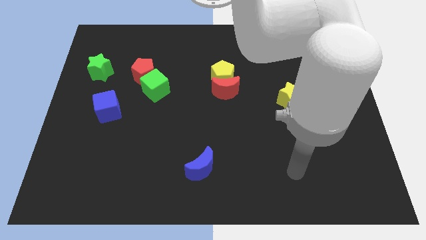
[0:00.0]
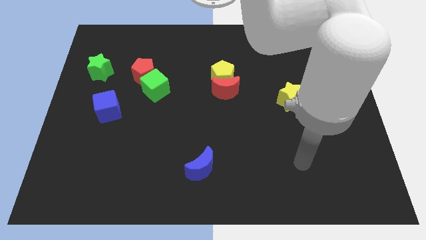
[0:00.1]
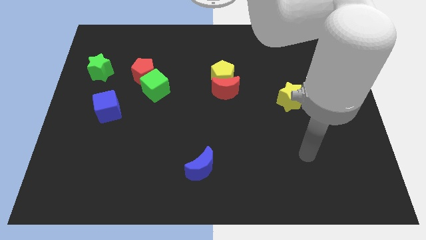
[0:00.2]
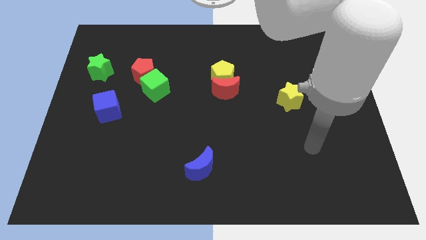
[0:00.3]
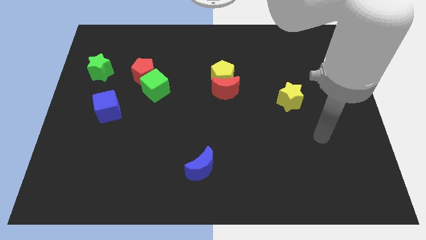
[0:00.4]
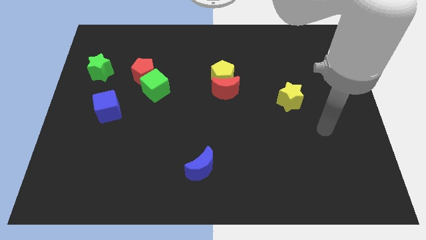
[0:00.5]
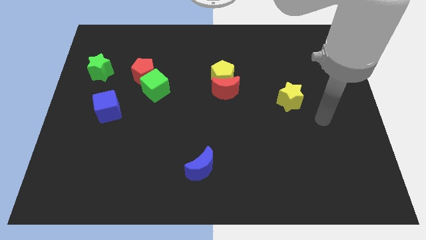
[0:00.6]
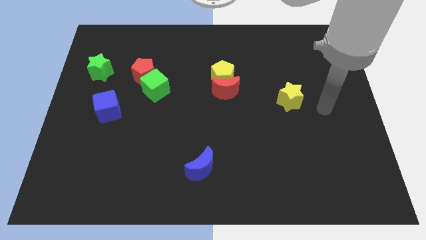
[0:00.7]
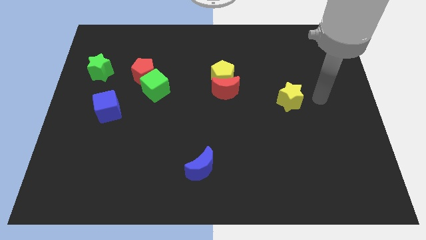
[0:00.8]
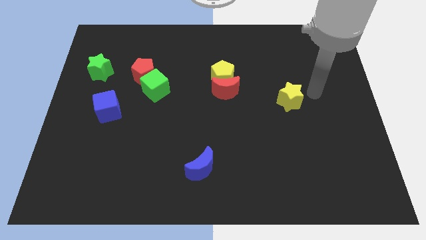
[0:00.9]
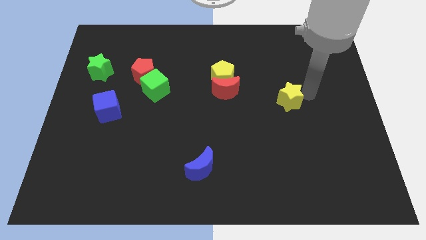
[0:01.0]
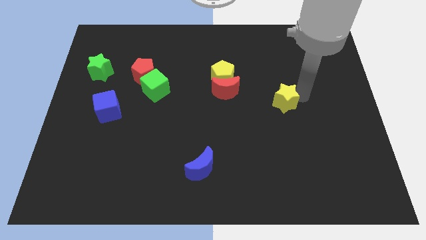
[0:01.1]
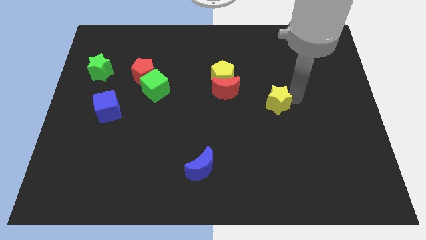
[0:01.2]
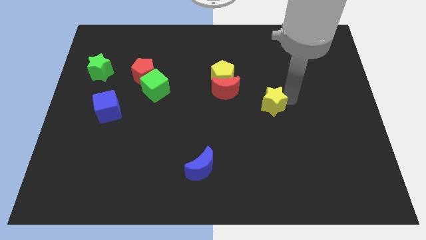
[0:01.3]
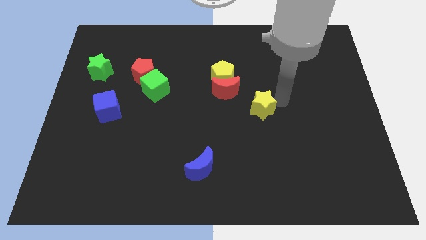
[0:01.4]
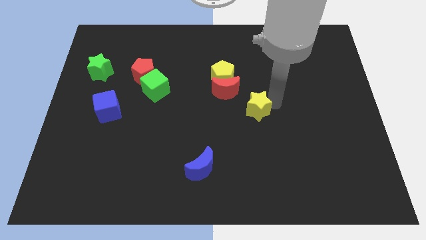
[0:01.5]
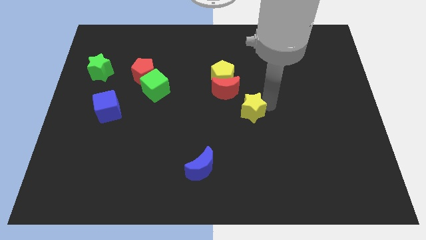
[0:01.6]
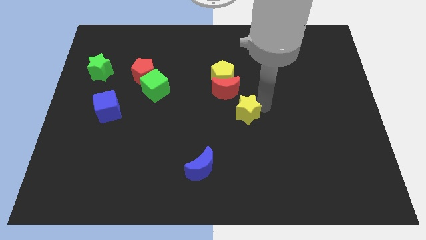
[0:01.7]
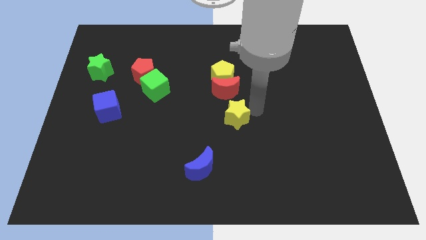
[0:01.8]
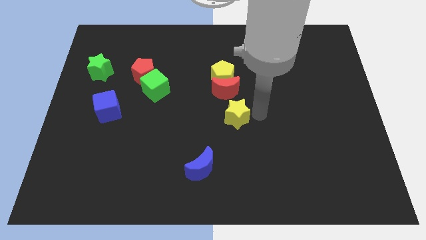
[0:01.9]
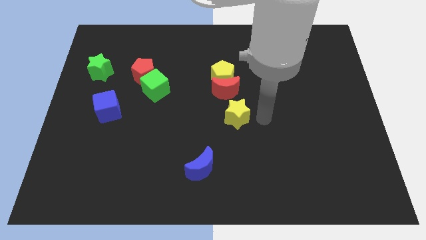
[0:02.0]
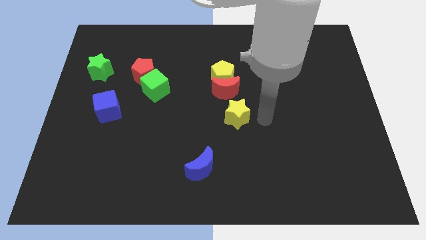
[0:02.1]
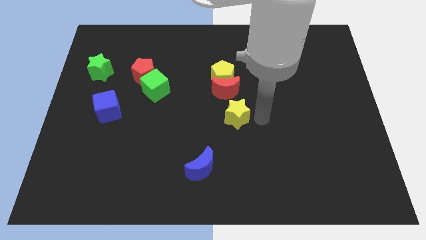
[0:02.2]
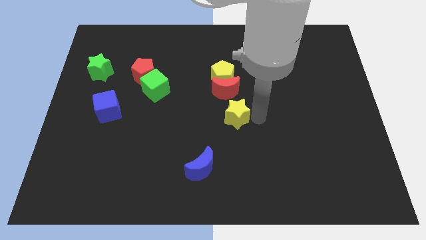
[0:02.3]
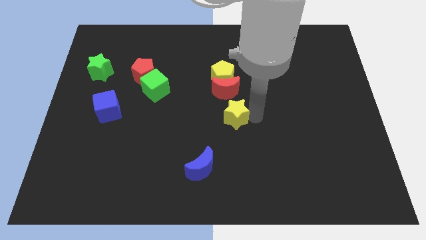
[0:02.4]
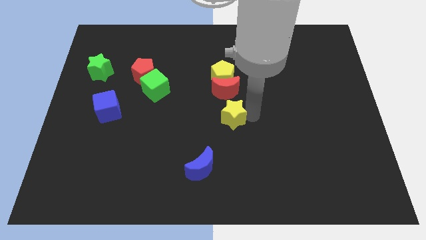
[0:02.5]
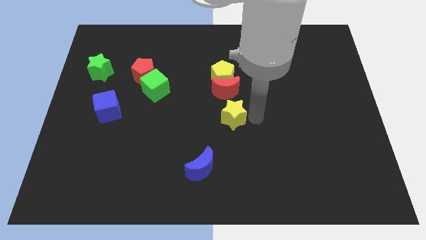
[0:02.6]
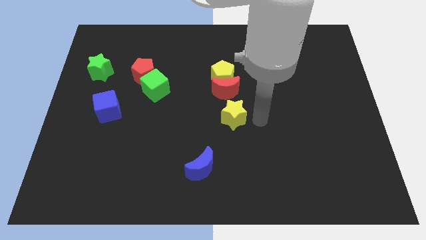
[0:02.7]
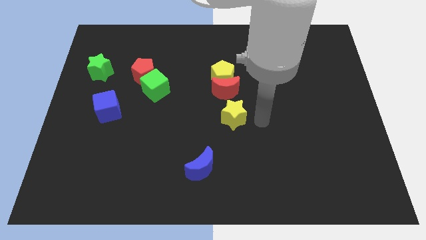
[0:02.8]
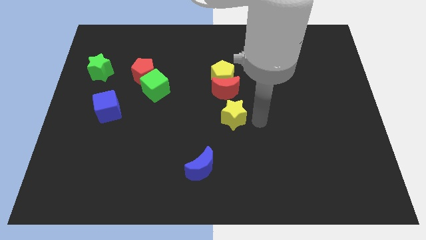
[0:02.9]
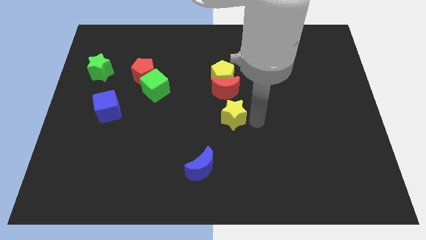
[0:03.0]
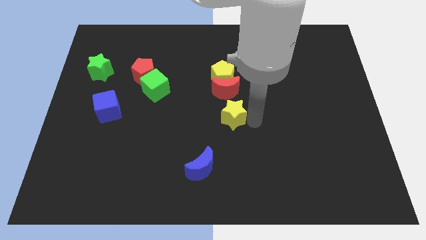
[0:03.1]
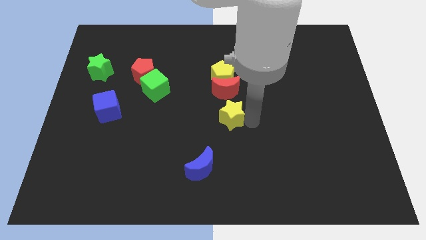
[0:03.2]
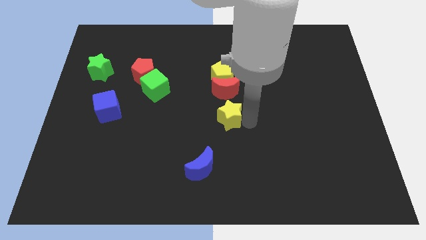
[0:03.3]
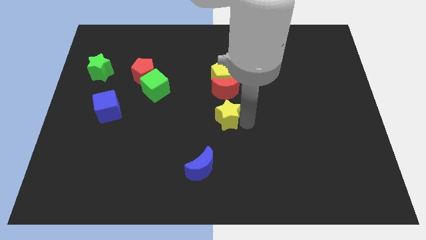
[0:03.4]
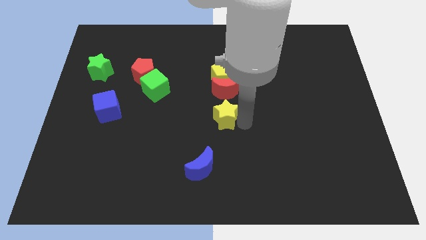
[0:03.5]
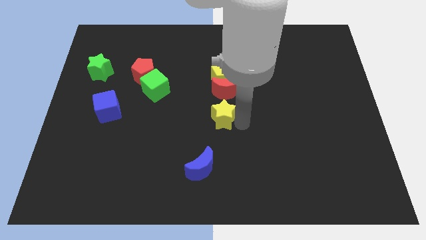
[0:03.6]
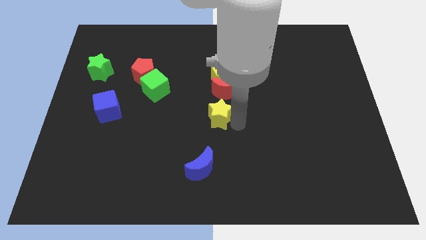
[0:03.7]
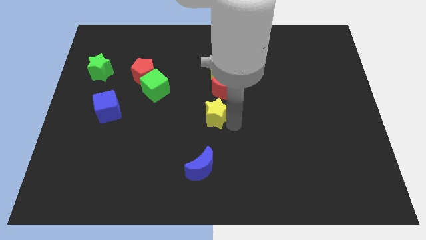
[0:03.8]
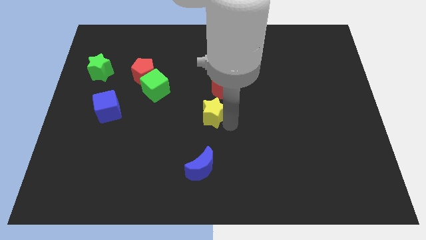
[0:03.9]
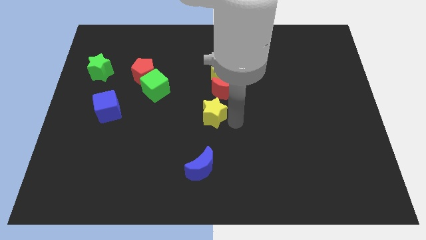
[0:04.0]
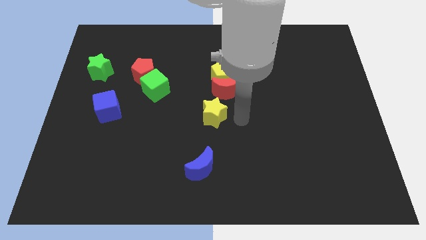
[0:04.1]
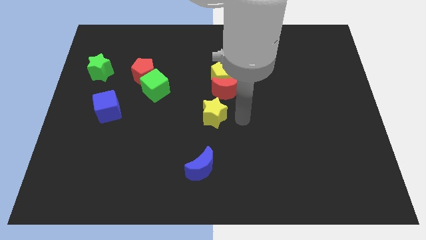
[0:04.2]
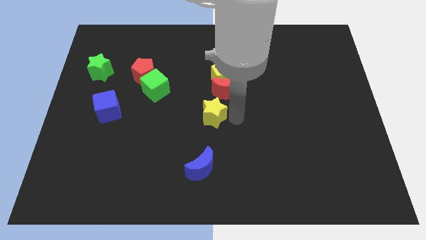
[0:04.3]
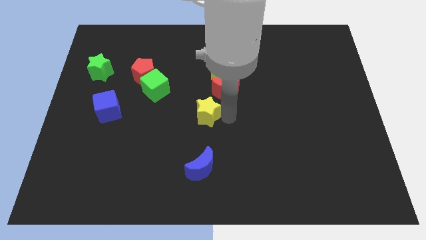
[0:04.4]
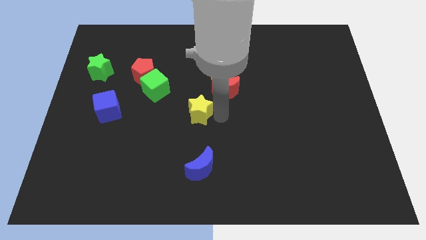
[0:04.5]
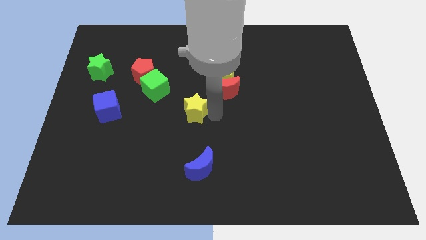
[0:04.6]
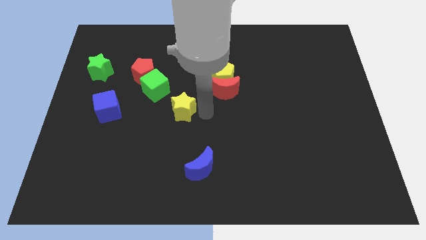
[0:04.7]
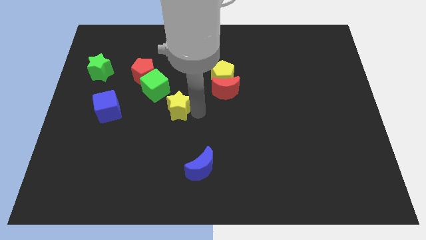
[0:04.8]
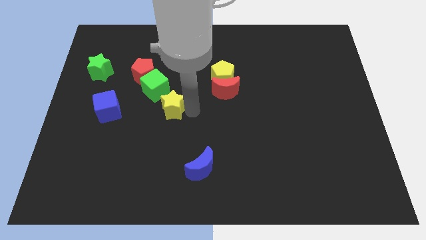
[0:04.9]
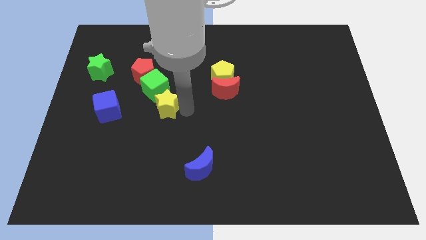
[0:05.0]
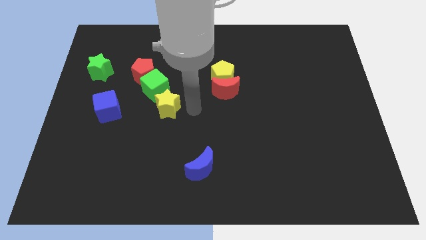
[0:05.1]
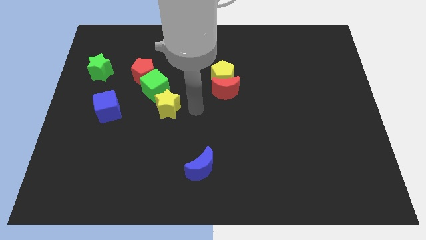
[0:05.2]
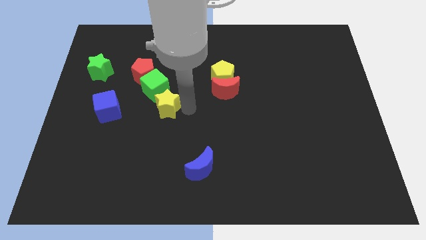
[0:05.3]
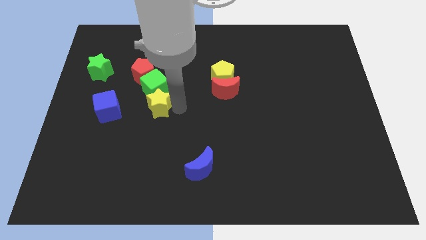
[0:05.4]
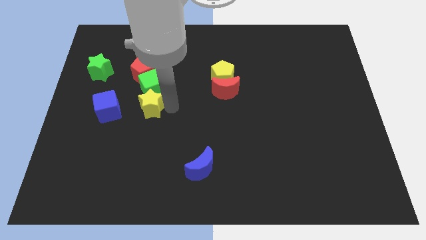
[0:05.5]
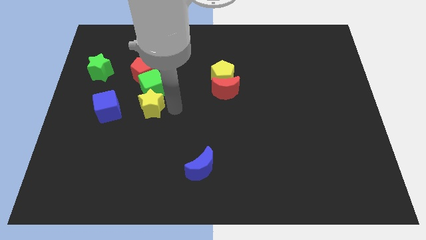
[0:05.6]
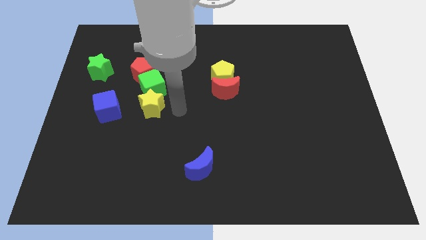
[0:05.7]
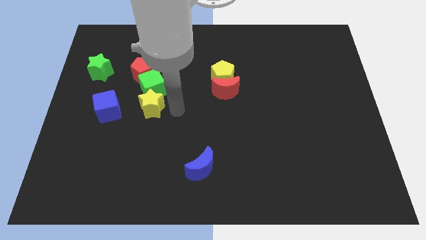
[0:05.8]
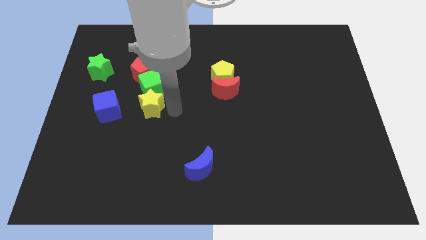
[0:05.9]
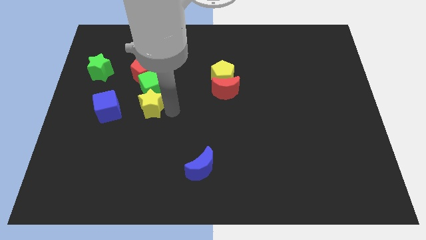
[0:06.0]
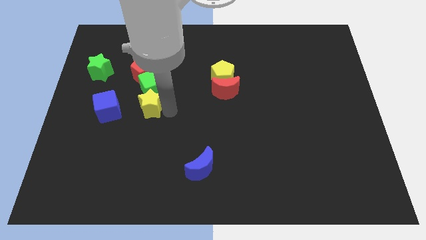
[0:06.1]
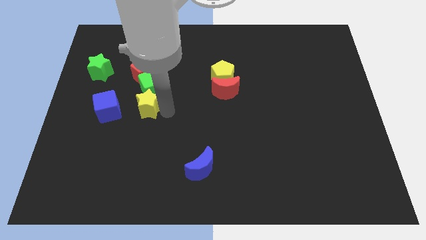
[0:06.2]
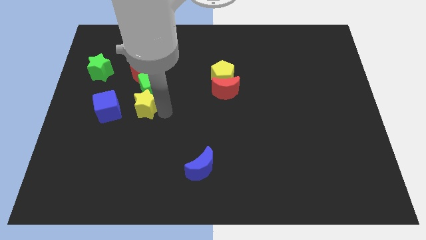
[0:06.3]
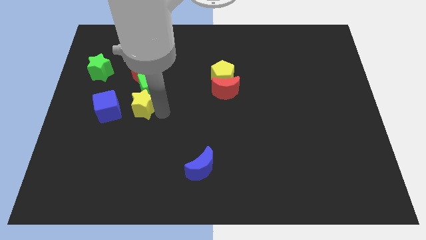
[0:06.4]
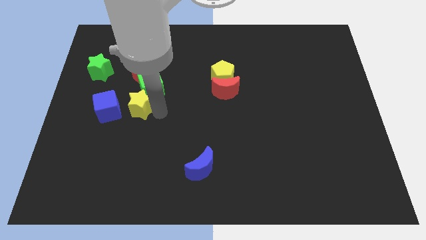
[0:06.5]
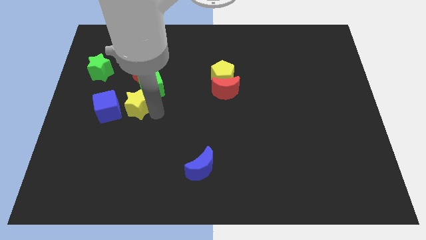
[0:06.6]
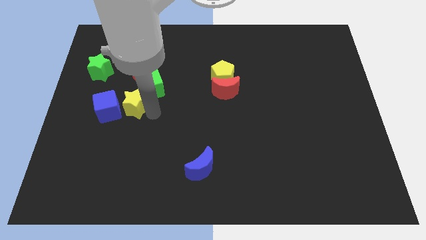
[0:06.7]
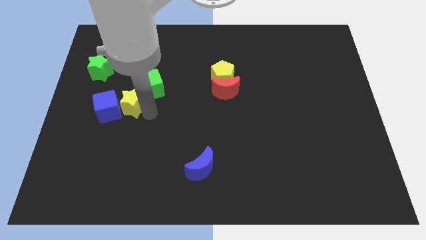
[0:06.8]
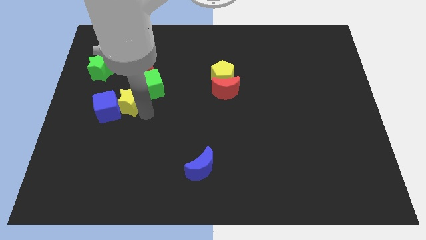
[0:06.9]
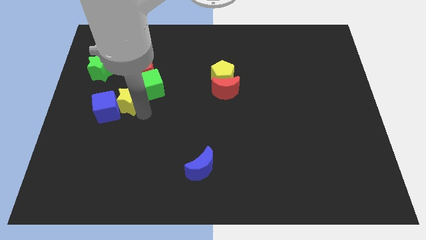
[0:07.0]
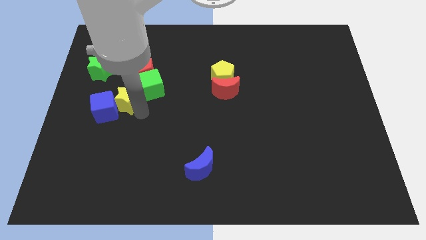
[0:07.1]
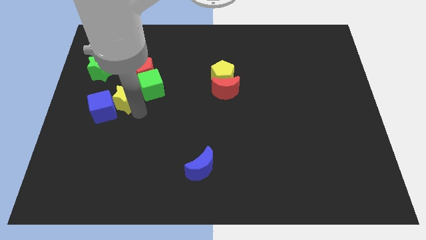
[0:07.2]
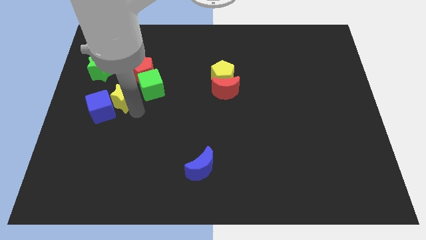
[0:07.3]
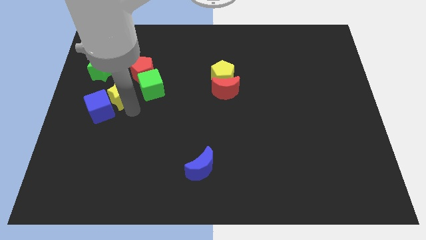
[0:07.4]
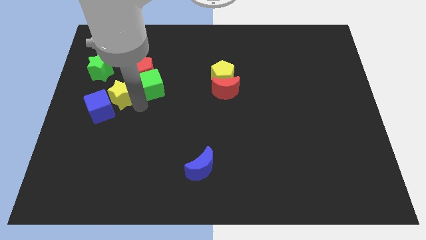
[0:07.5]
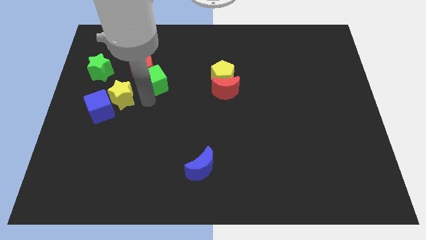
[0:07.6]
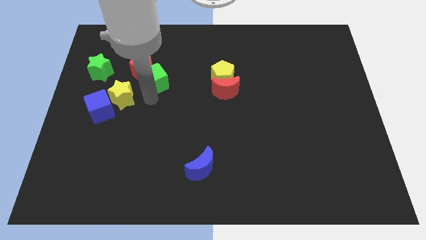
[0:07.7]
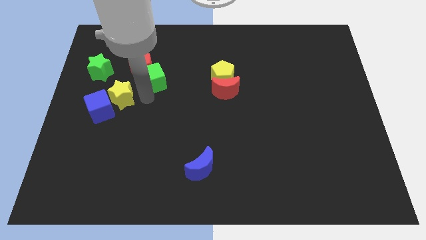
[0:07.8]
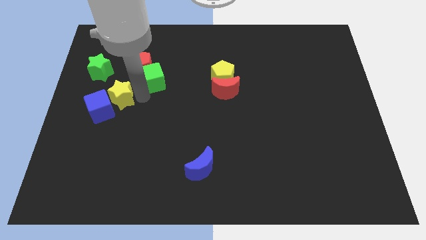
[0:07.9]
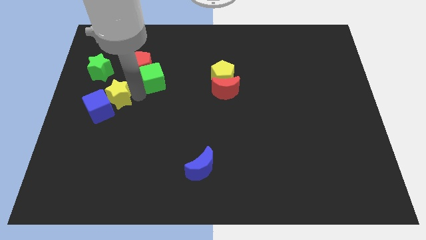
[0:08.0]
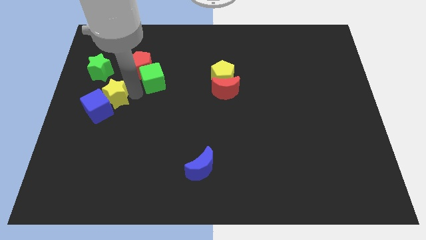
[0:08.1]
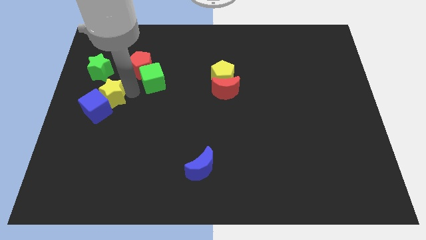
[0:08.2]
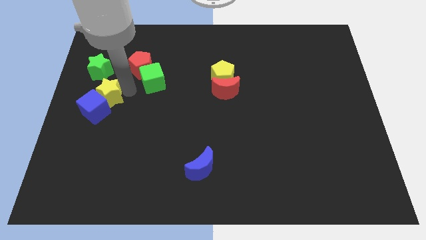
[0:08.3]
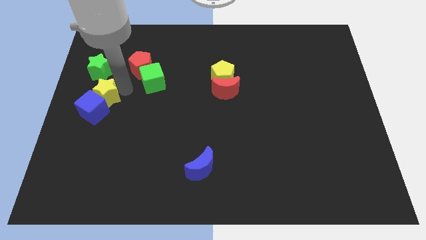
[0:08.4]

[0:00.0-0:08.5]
put the yellow star to the left side of the board
